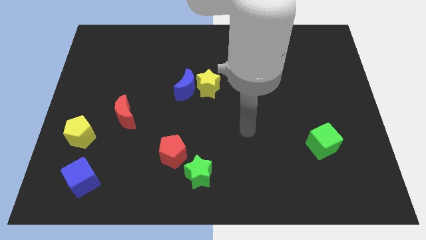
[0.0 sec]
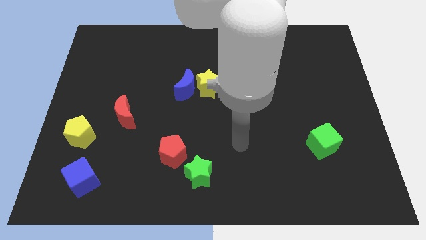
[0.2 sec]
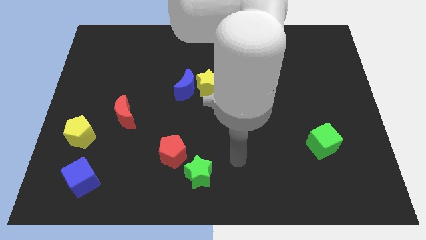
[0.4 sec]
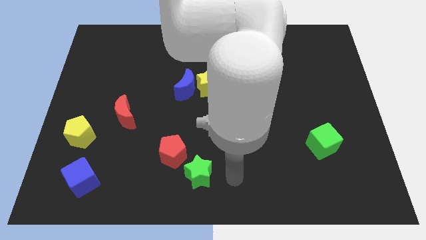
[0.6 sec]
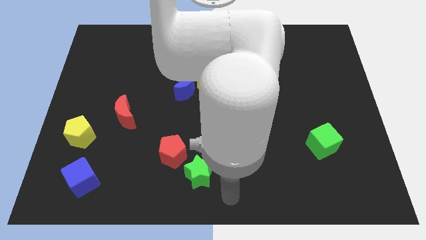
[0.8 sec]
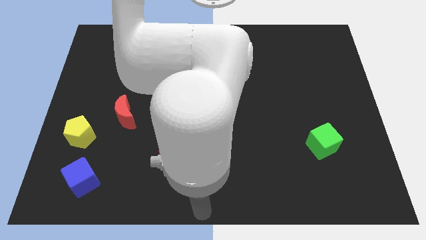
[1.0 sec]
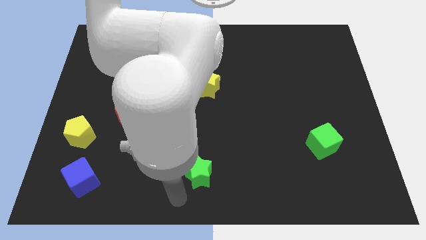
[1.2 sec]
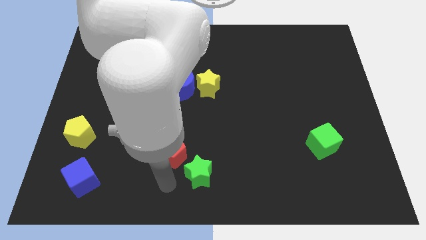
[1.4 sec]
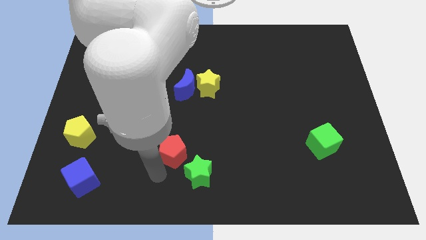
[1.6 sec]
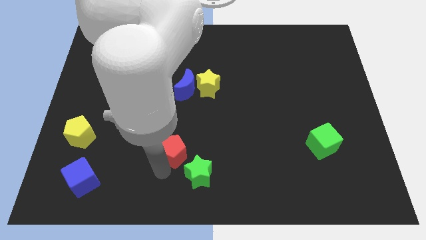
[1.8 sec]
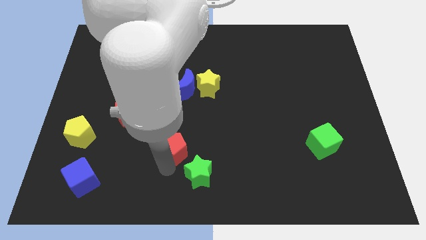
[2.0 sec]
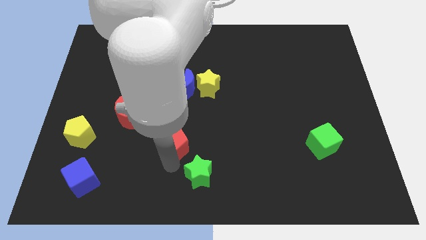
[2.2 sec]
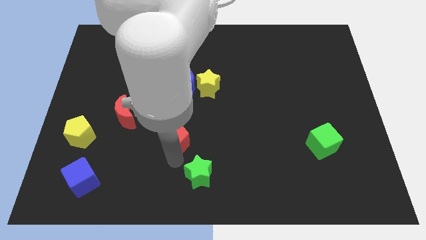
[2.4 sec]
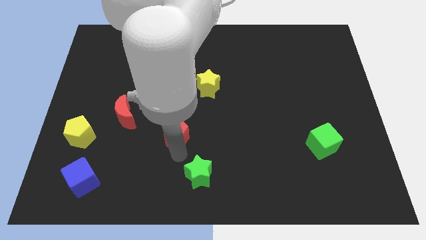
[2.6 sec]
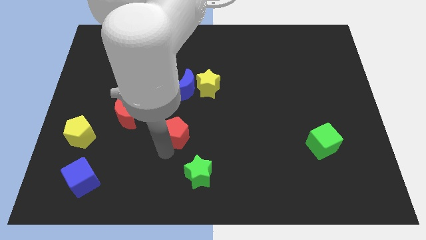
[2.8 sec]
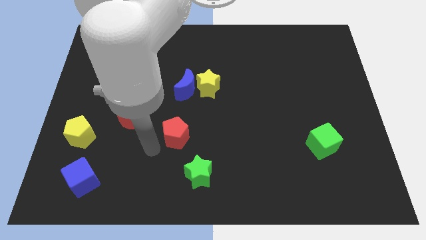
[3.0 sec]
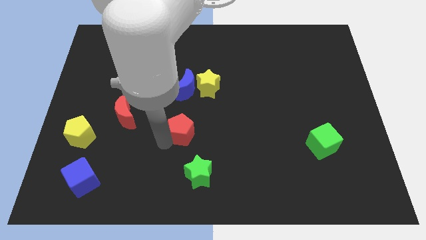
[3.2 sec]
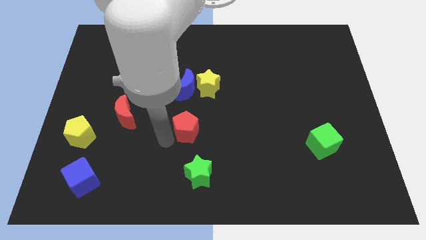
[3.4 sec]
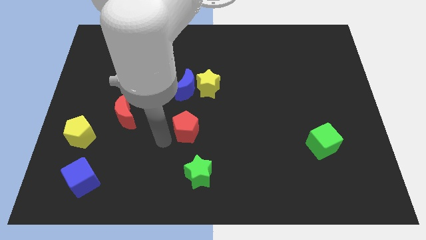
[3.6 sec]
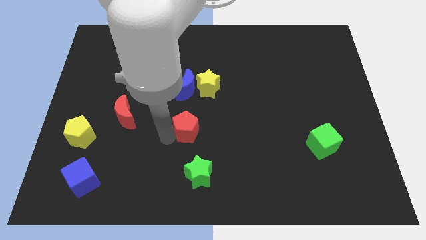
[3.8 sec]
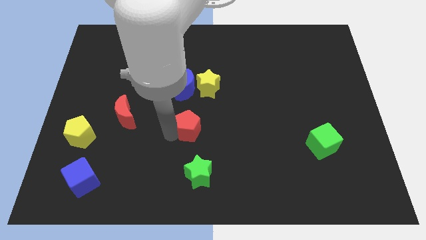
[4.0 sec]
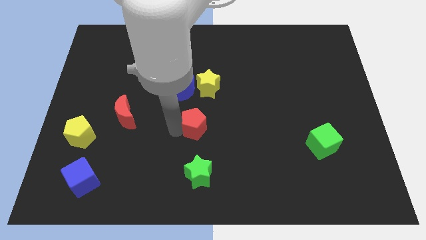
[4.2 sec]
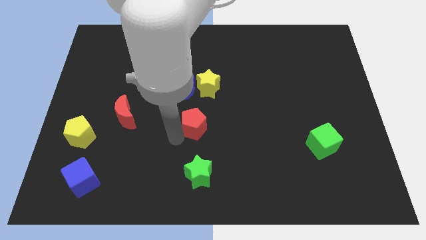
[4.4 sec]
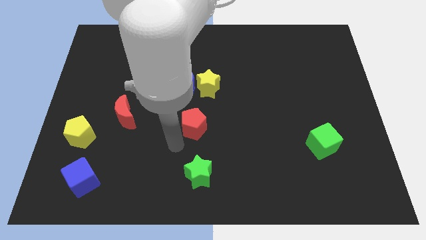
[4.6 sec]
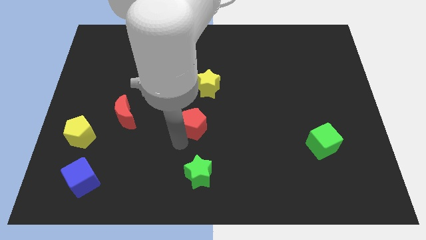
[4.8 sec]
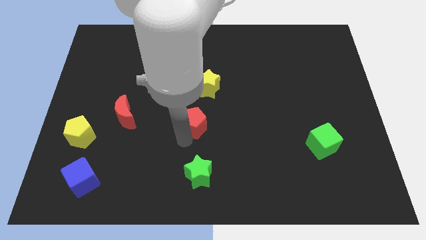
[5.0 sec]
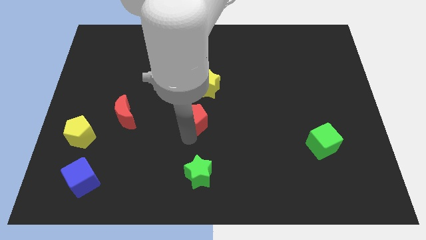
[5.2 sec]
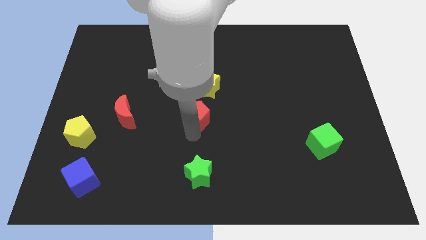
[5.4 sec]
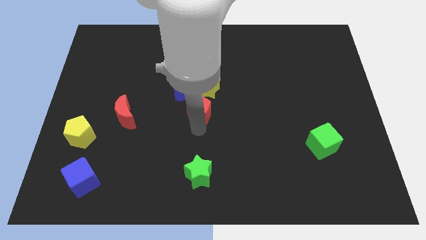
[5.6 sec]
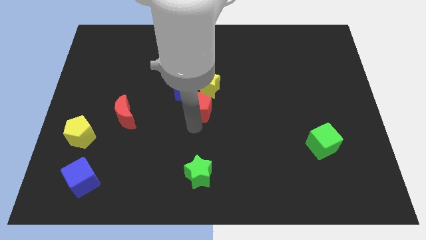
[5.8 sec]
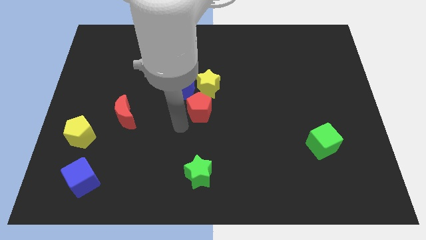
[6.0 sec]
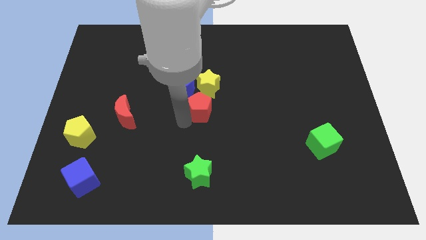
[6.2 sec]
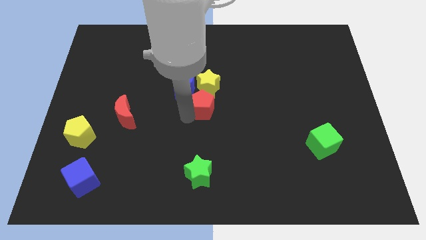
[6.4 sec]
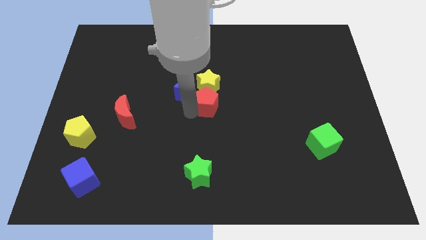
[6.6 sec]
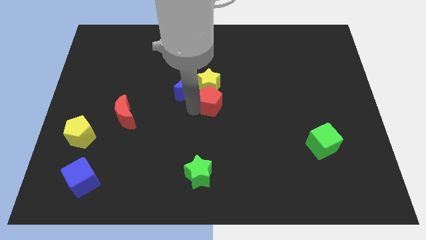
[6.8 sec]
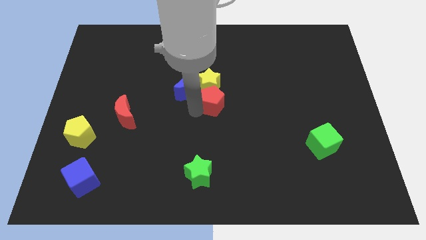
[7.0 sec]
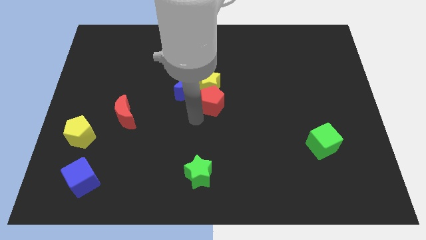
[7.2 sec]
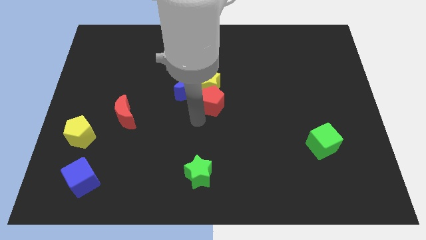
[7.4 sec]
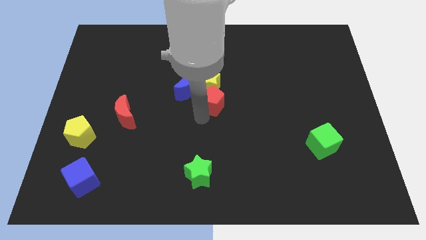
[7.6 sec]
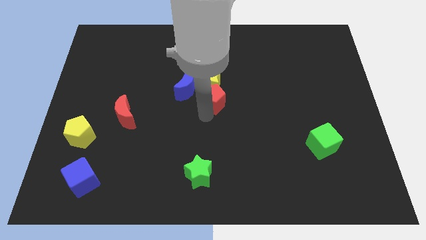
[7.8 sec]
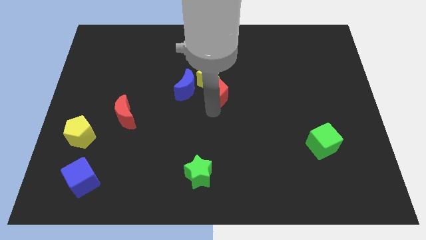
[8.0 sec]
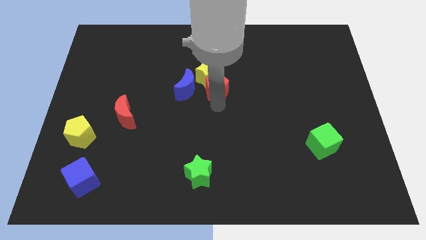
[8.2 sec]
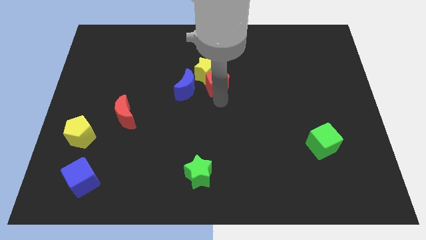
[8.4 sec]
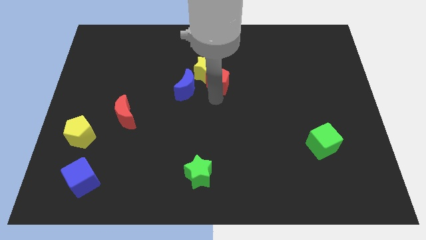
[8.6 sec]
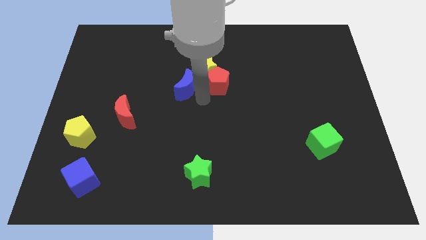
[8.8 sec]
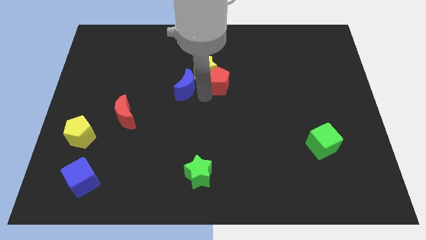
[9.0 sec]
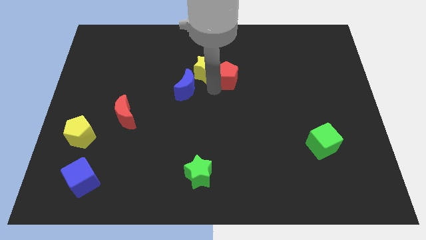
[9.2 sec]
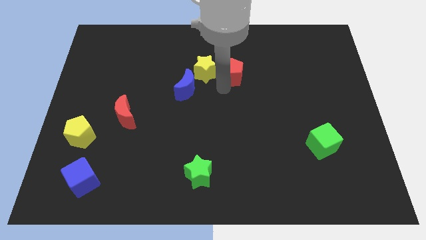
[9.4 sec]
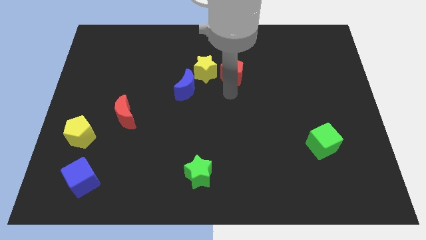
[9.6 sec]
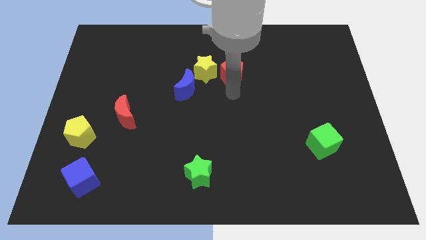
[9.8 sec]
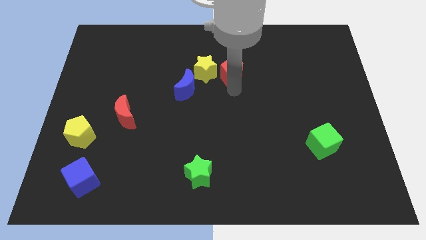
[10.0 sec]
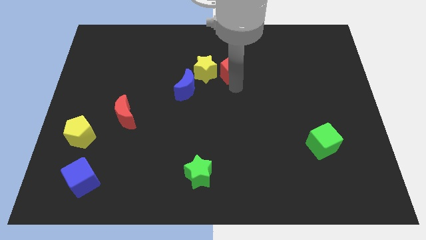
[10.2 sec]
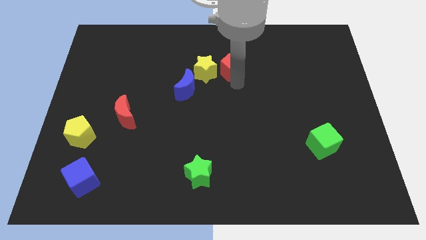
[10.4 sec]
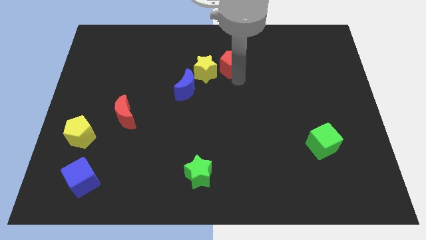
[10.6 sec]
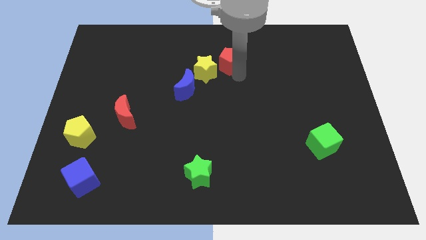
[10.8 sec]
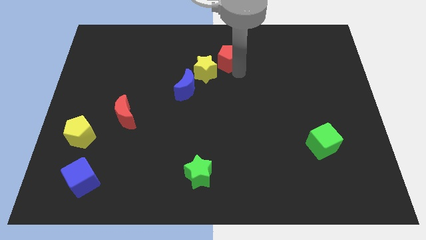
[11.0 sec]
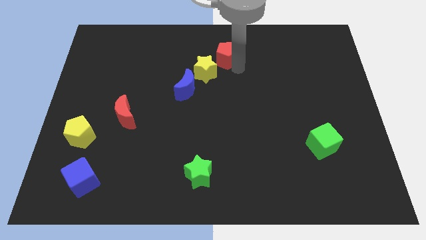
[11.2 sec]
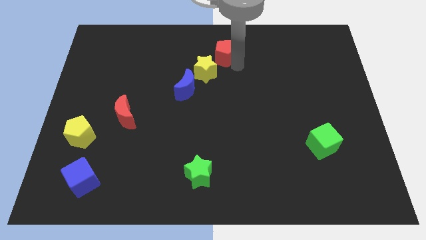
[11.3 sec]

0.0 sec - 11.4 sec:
push the red pentagon to the towards your base
